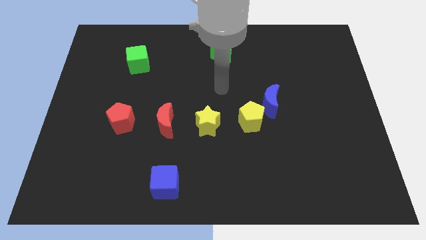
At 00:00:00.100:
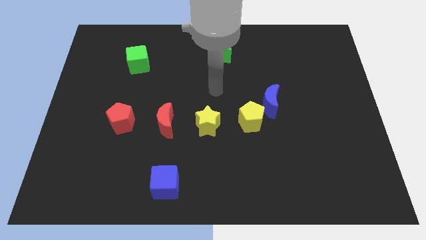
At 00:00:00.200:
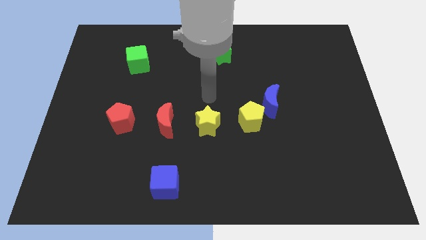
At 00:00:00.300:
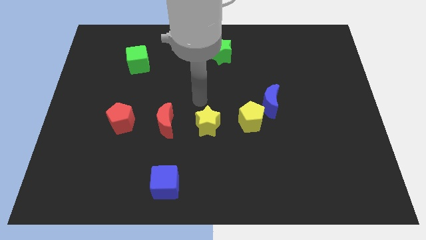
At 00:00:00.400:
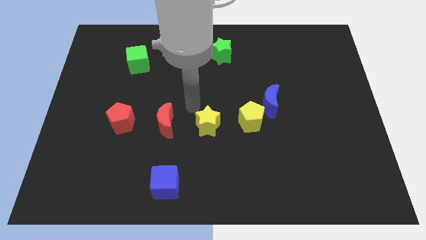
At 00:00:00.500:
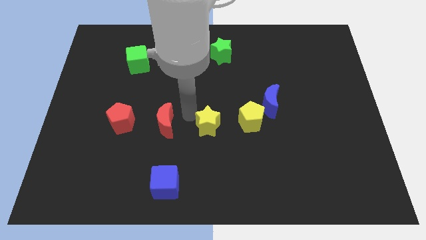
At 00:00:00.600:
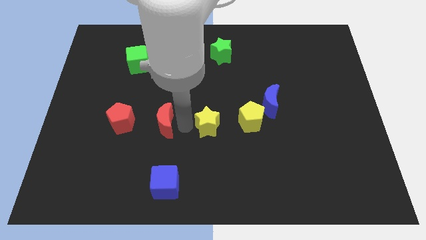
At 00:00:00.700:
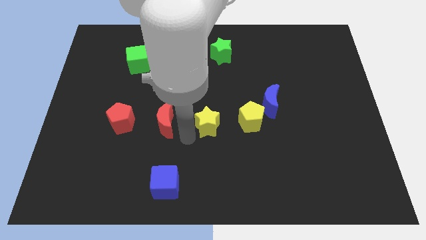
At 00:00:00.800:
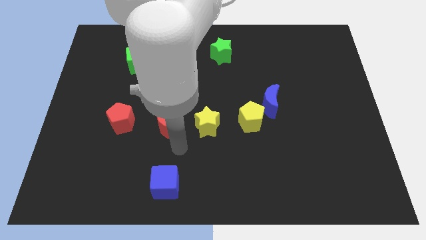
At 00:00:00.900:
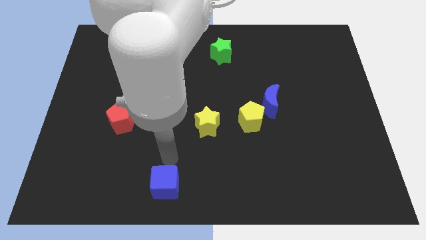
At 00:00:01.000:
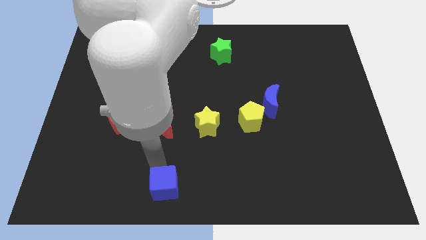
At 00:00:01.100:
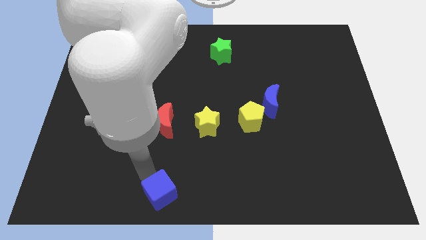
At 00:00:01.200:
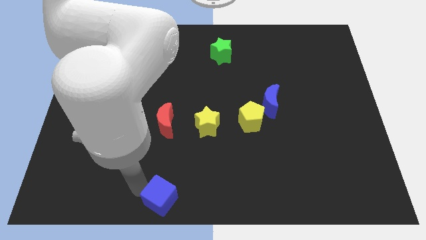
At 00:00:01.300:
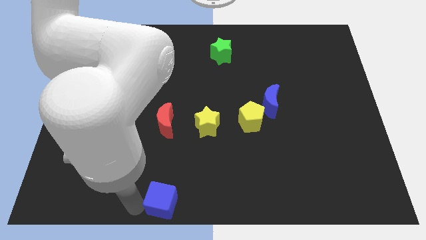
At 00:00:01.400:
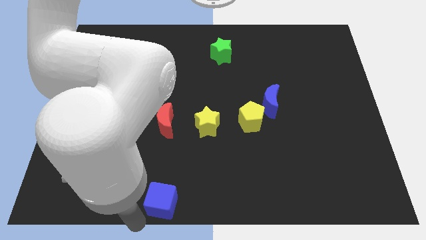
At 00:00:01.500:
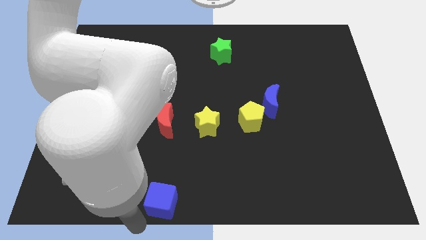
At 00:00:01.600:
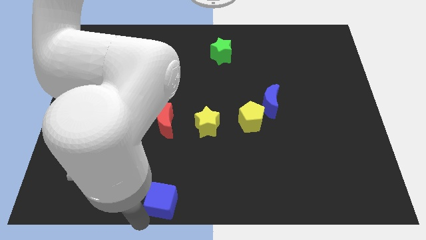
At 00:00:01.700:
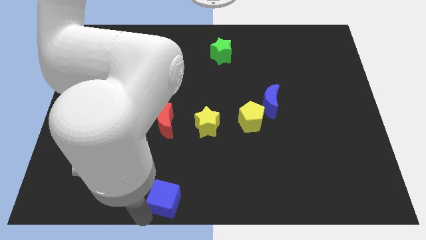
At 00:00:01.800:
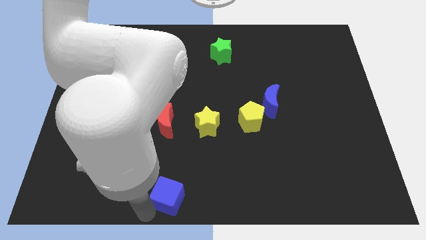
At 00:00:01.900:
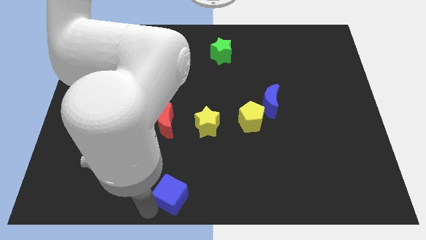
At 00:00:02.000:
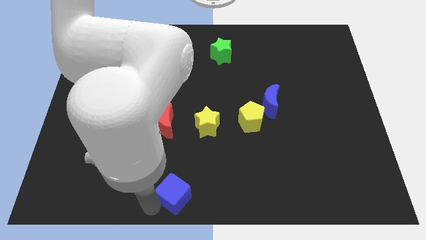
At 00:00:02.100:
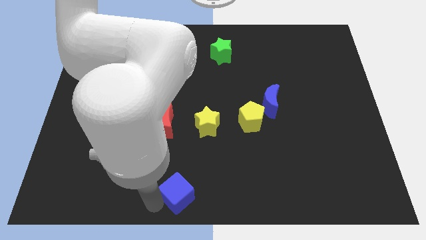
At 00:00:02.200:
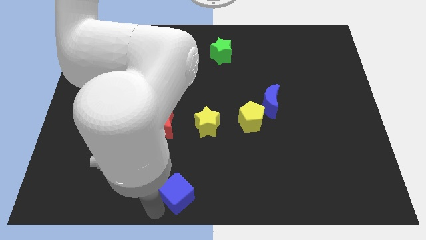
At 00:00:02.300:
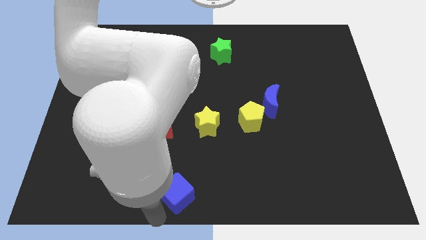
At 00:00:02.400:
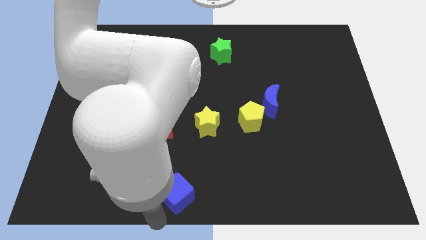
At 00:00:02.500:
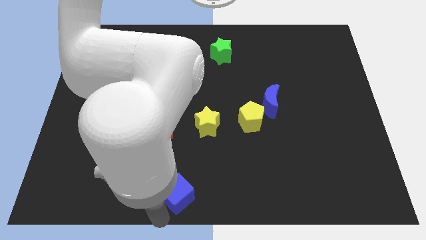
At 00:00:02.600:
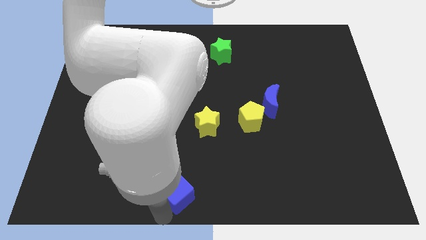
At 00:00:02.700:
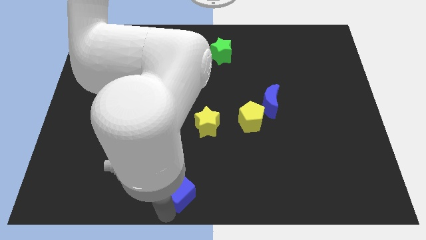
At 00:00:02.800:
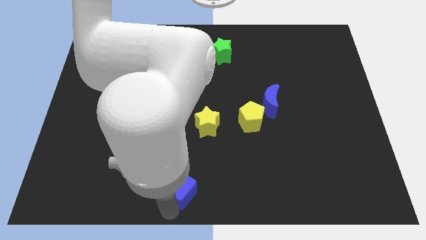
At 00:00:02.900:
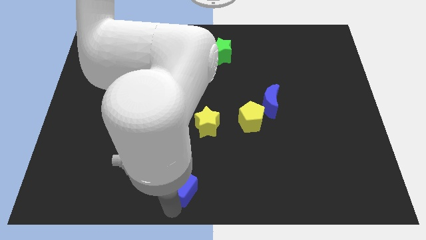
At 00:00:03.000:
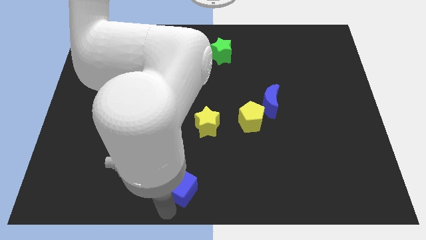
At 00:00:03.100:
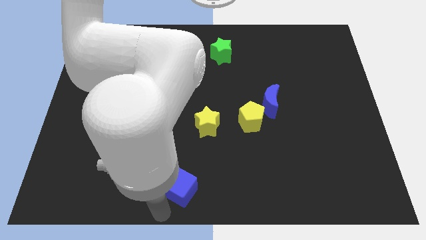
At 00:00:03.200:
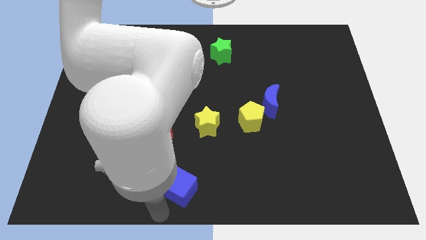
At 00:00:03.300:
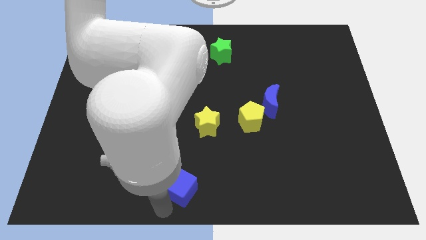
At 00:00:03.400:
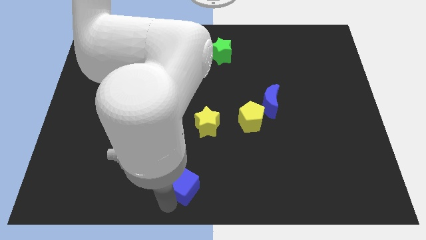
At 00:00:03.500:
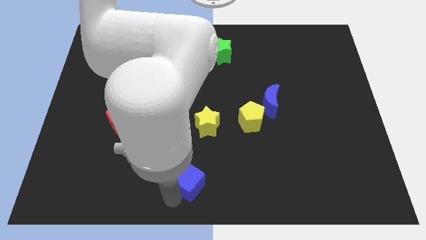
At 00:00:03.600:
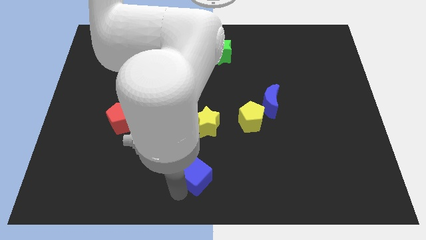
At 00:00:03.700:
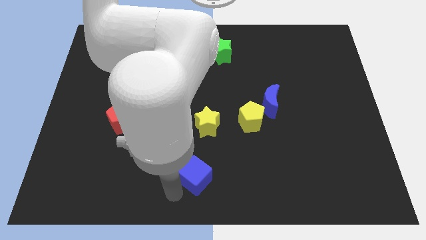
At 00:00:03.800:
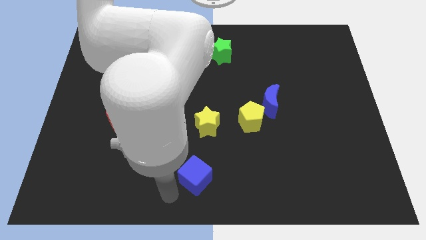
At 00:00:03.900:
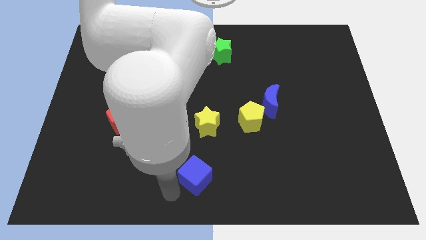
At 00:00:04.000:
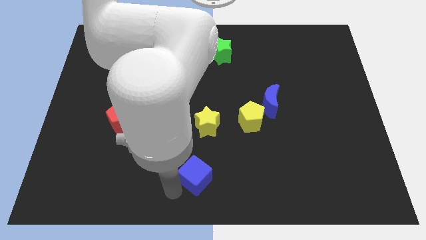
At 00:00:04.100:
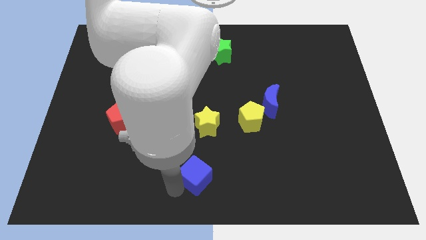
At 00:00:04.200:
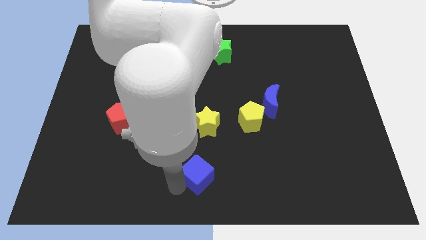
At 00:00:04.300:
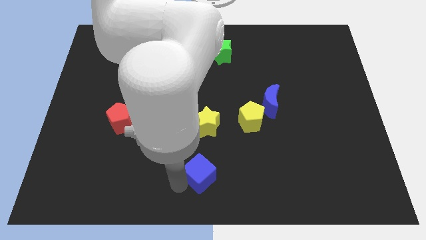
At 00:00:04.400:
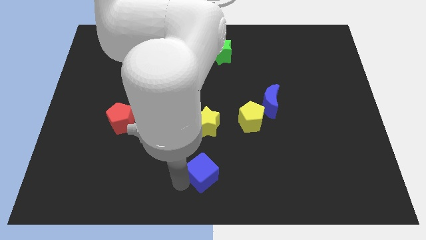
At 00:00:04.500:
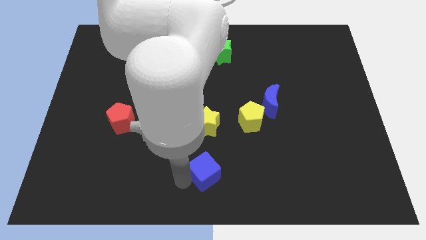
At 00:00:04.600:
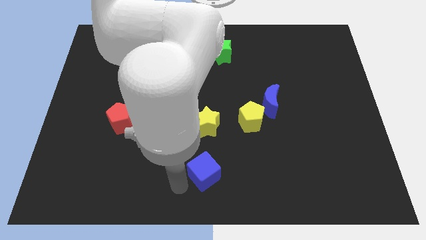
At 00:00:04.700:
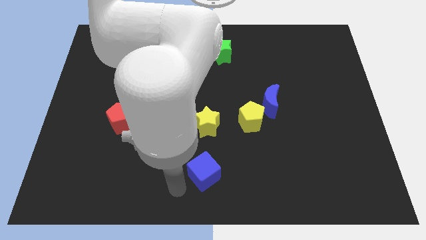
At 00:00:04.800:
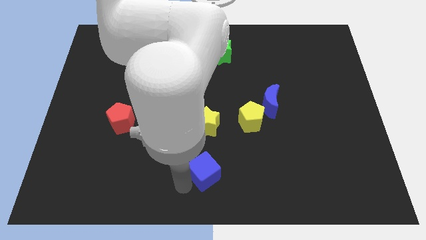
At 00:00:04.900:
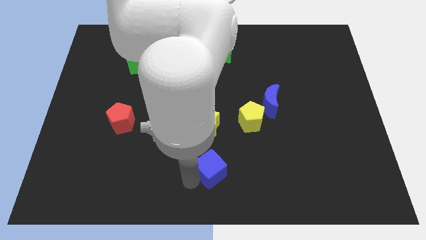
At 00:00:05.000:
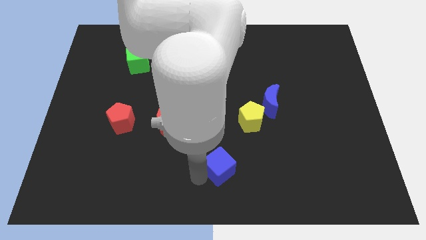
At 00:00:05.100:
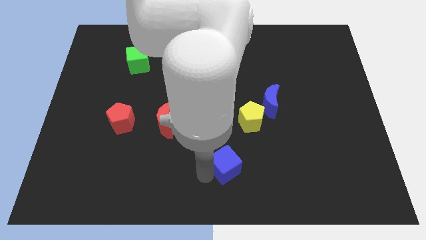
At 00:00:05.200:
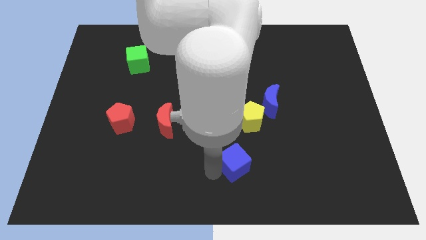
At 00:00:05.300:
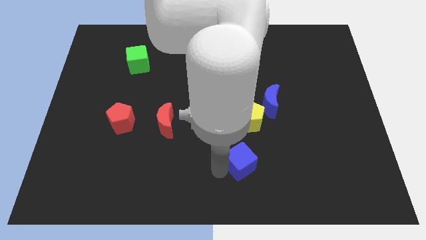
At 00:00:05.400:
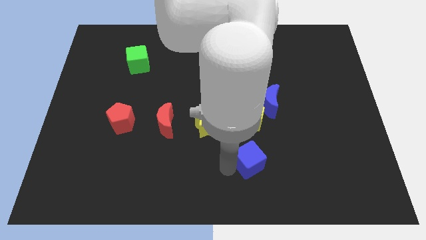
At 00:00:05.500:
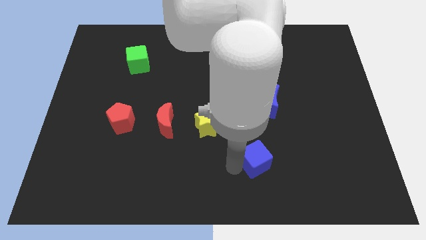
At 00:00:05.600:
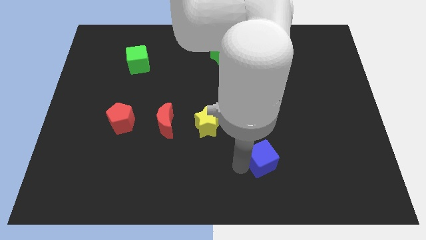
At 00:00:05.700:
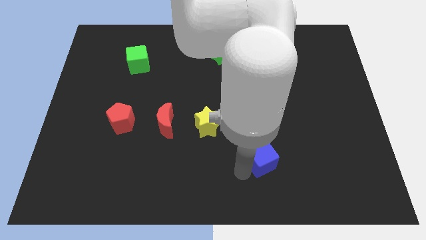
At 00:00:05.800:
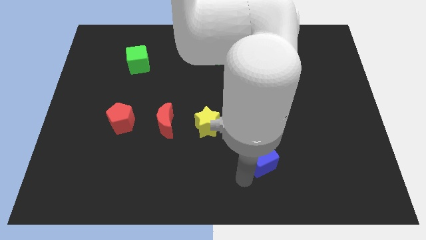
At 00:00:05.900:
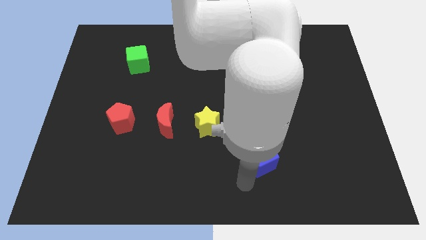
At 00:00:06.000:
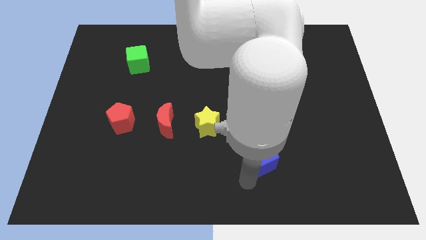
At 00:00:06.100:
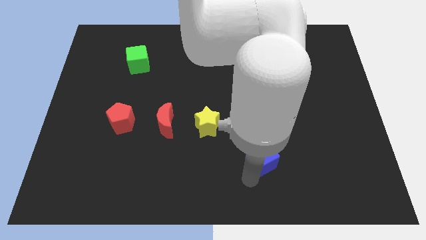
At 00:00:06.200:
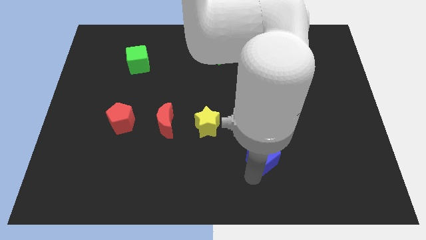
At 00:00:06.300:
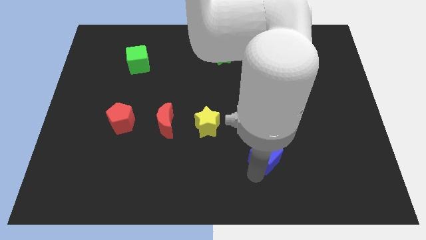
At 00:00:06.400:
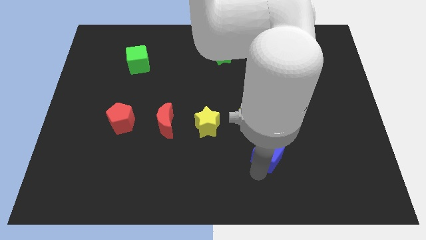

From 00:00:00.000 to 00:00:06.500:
slide the blue cube diagonally down and to the right of the yellow pentagon
